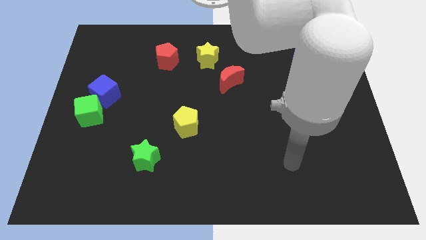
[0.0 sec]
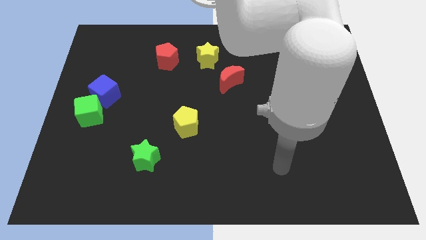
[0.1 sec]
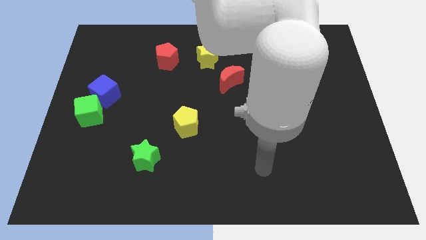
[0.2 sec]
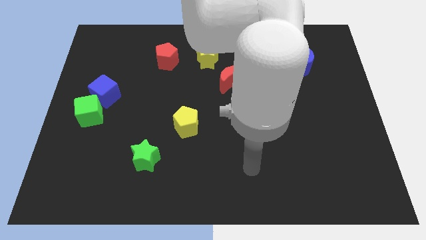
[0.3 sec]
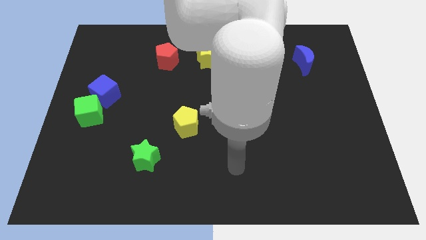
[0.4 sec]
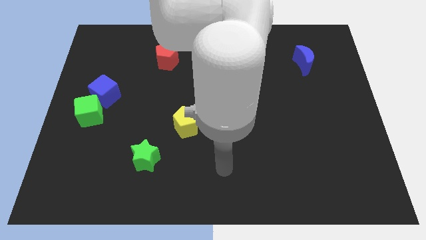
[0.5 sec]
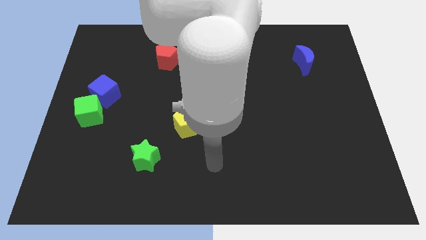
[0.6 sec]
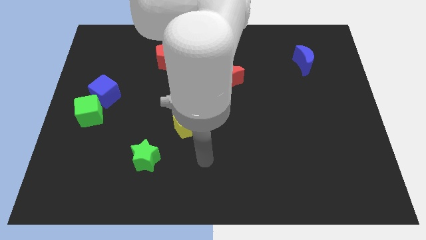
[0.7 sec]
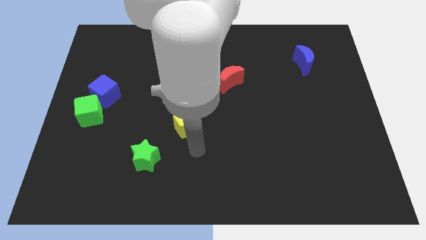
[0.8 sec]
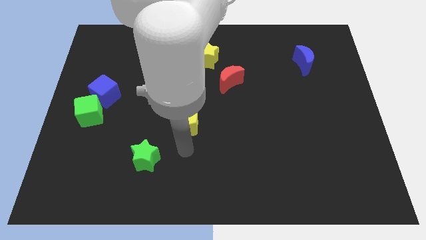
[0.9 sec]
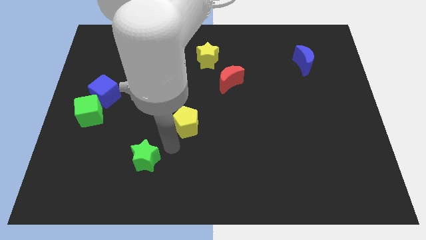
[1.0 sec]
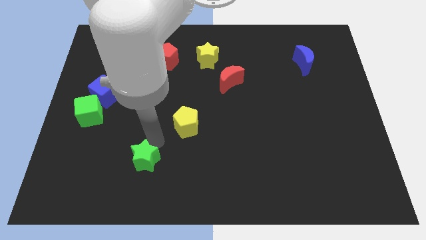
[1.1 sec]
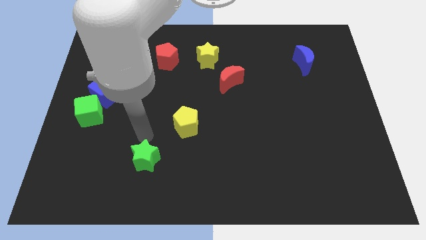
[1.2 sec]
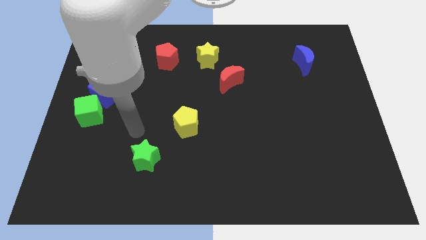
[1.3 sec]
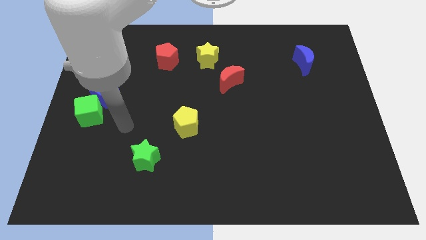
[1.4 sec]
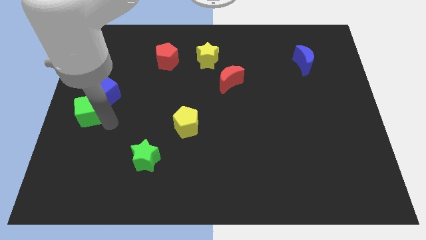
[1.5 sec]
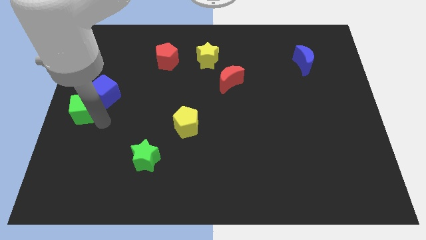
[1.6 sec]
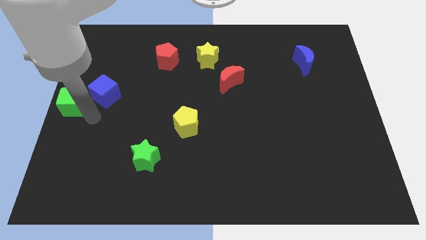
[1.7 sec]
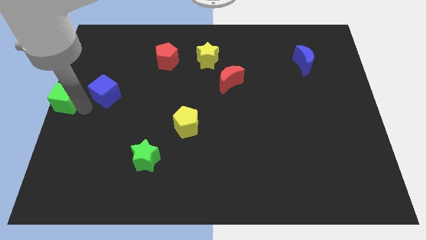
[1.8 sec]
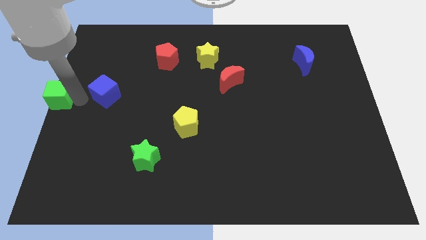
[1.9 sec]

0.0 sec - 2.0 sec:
separate the blue cube from the green cube

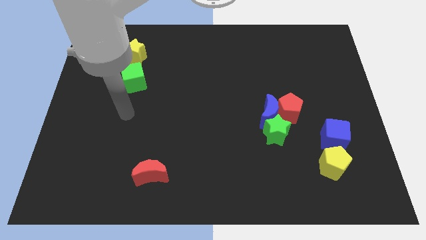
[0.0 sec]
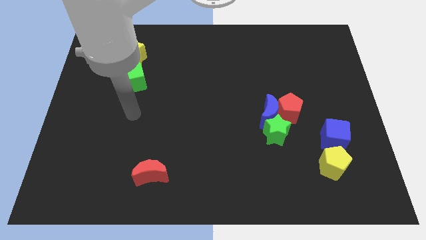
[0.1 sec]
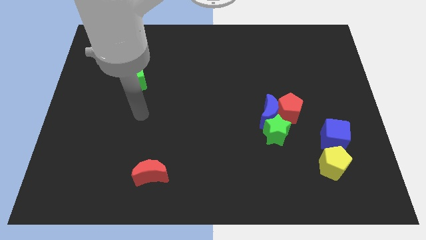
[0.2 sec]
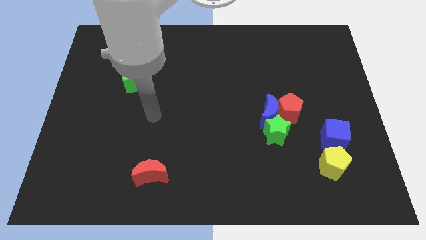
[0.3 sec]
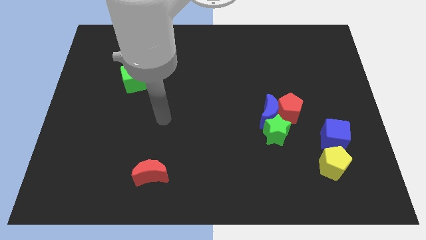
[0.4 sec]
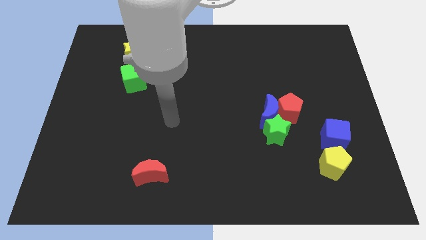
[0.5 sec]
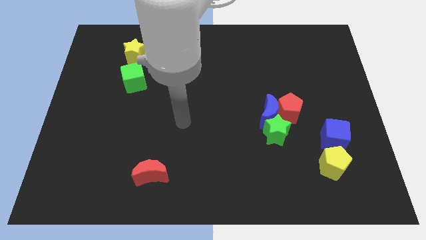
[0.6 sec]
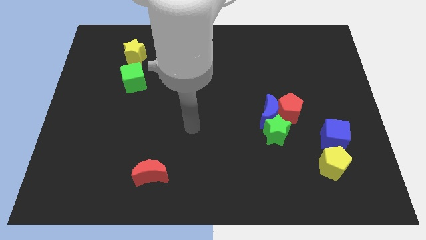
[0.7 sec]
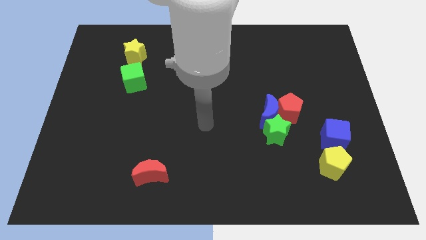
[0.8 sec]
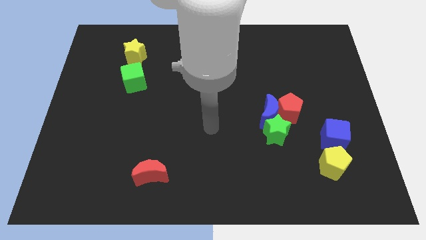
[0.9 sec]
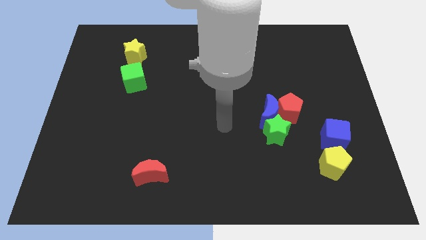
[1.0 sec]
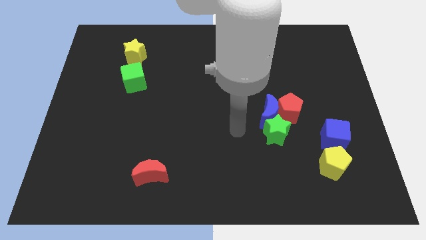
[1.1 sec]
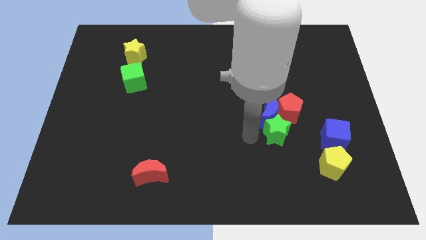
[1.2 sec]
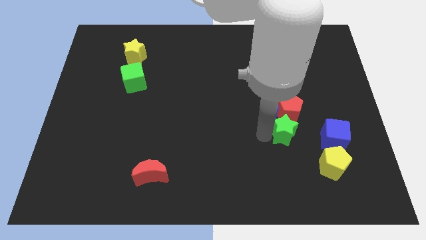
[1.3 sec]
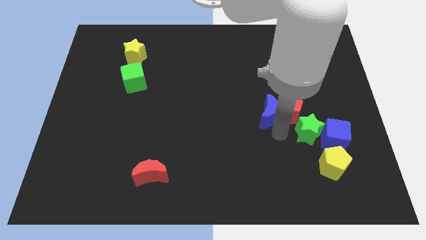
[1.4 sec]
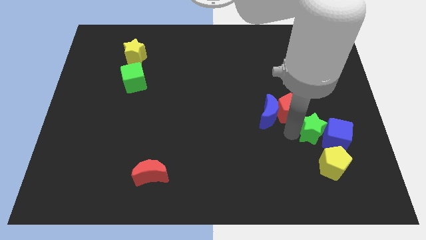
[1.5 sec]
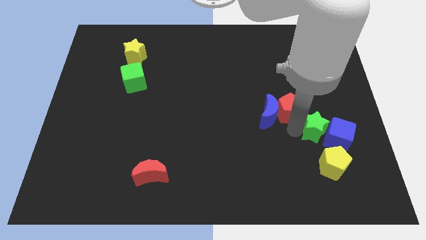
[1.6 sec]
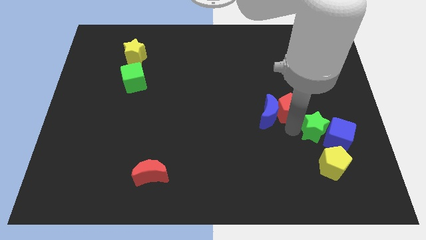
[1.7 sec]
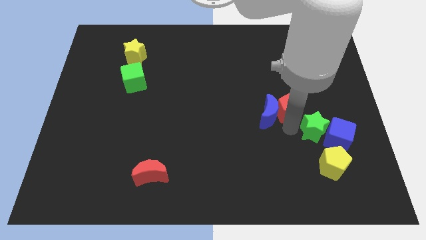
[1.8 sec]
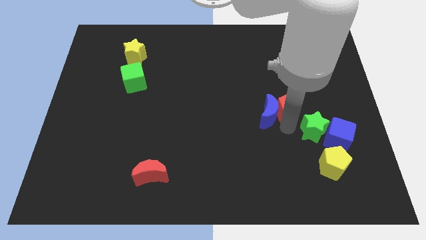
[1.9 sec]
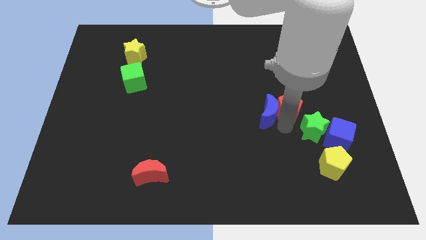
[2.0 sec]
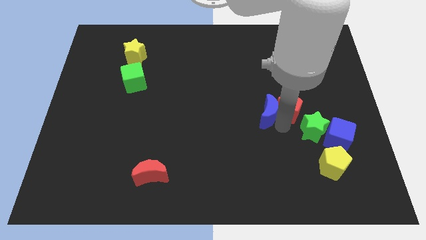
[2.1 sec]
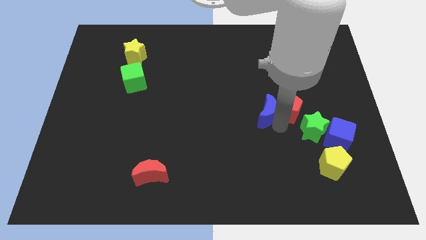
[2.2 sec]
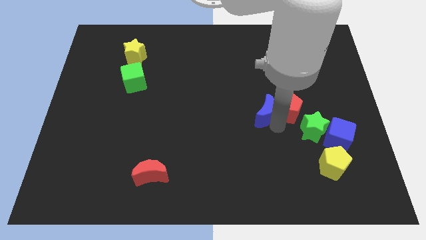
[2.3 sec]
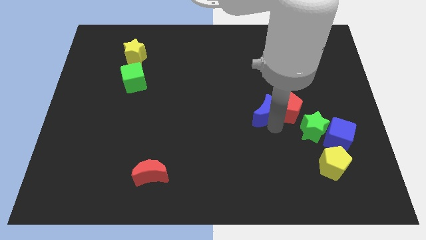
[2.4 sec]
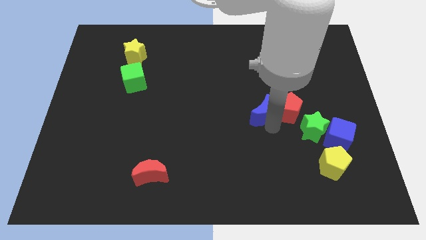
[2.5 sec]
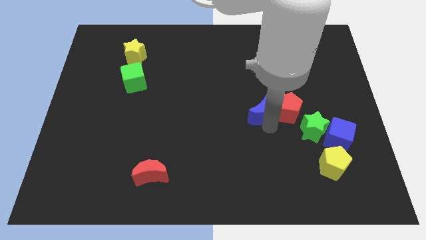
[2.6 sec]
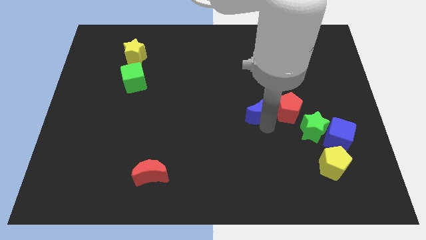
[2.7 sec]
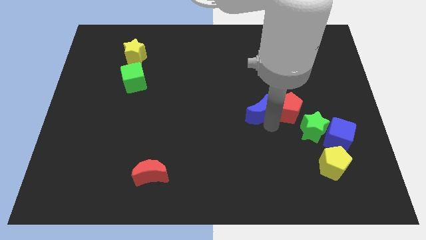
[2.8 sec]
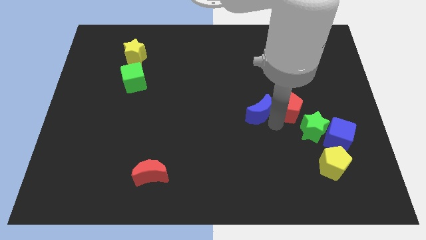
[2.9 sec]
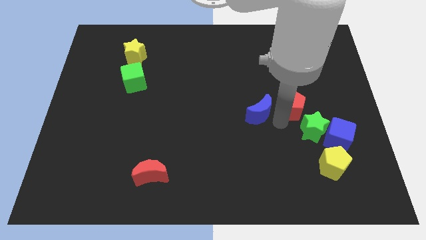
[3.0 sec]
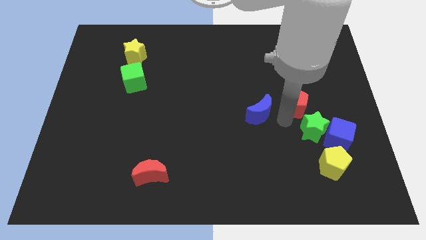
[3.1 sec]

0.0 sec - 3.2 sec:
pull the blue moon apart from the red pentagon and green star

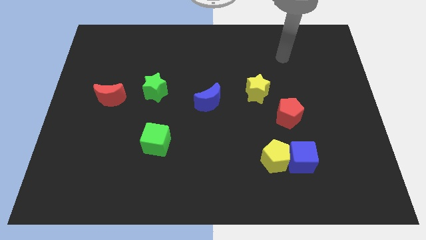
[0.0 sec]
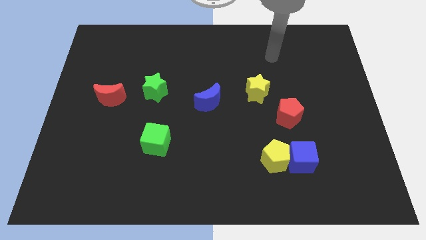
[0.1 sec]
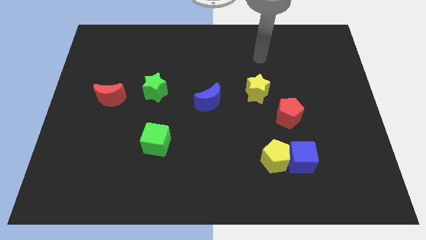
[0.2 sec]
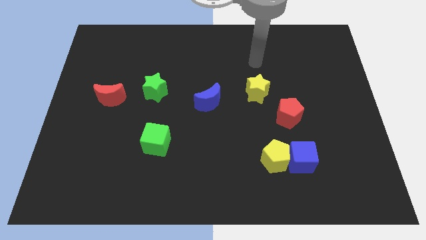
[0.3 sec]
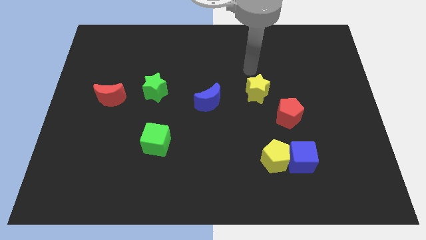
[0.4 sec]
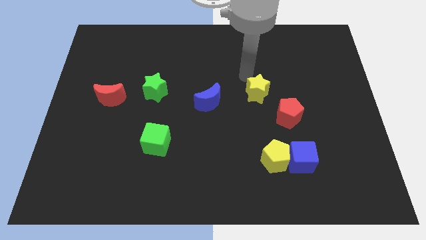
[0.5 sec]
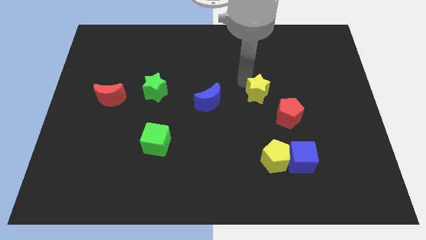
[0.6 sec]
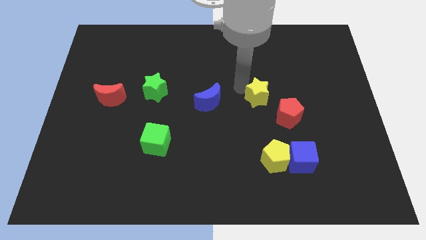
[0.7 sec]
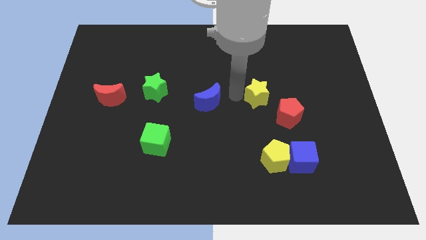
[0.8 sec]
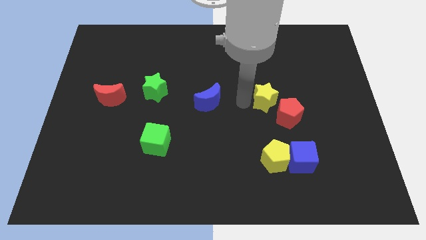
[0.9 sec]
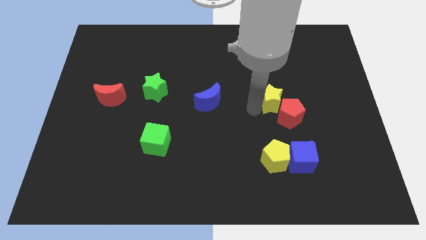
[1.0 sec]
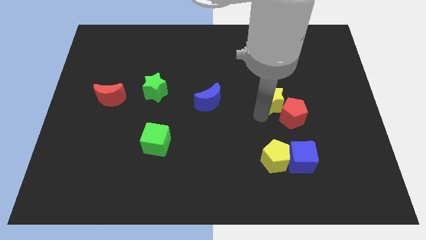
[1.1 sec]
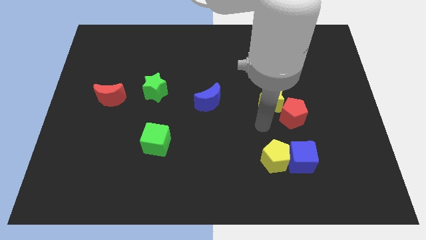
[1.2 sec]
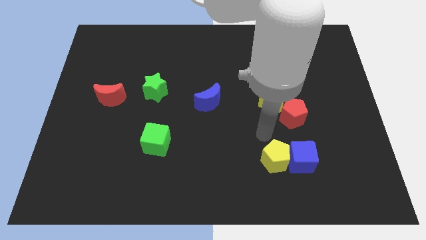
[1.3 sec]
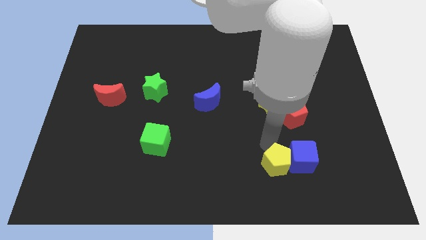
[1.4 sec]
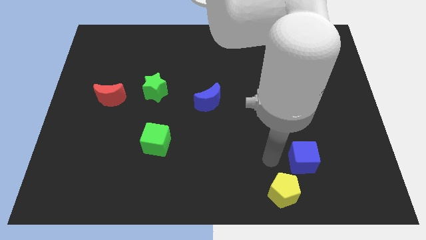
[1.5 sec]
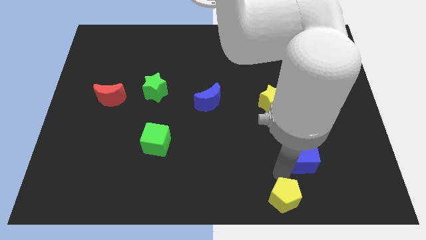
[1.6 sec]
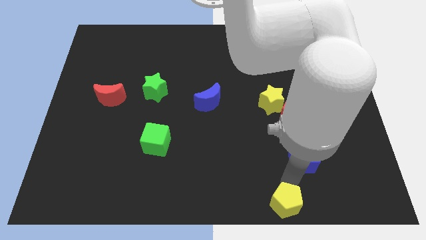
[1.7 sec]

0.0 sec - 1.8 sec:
move the blue cube away from the yellow pentagon

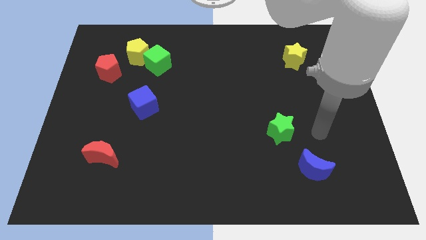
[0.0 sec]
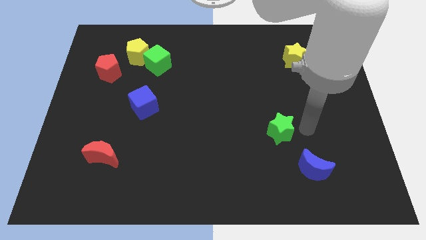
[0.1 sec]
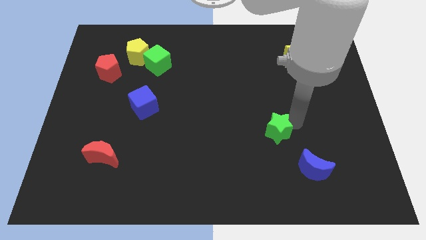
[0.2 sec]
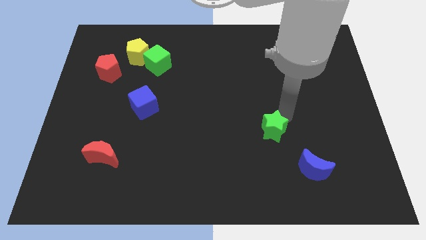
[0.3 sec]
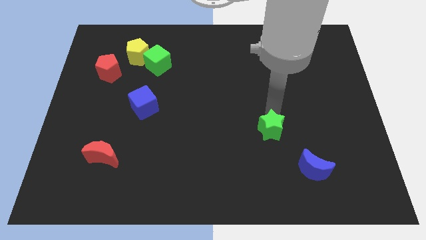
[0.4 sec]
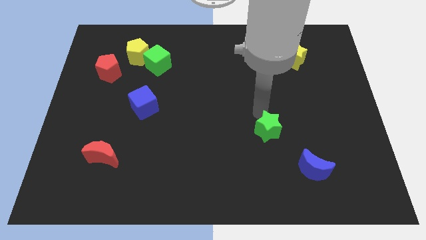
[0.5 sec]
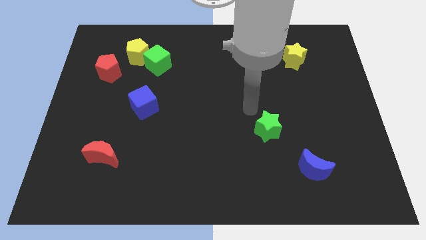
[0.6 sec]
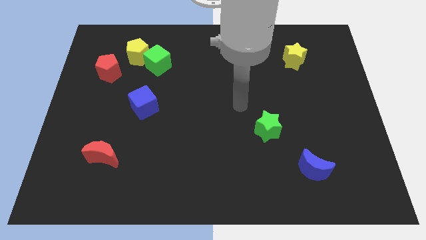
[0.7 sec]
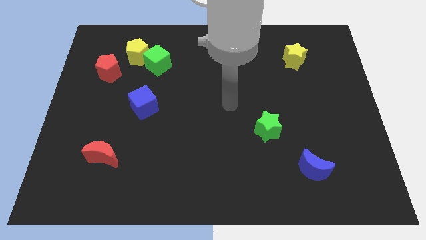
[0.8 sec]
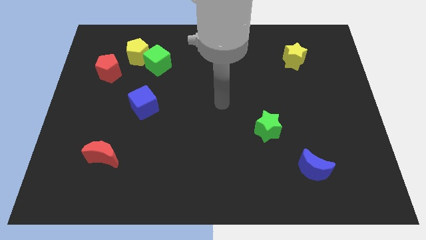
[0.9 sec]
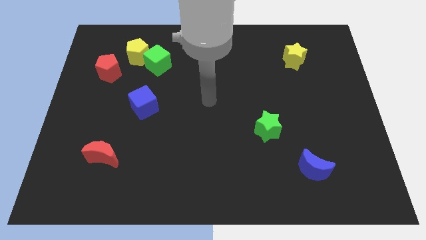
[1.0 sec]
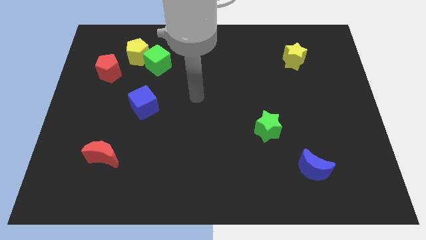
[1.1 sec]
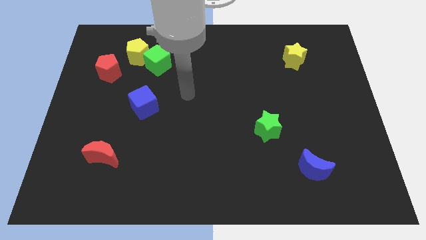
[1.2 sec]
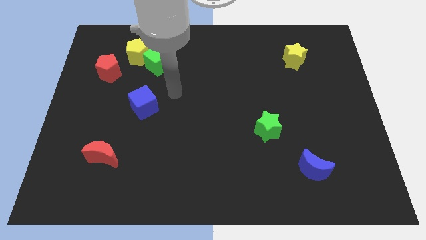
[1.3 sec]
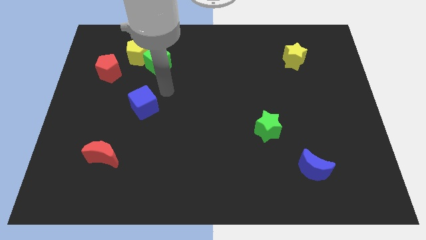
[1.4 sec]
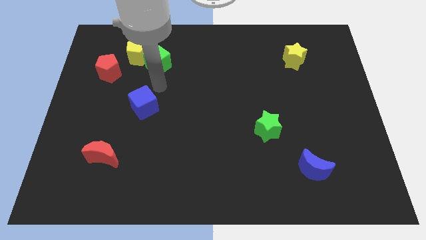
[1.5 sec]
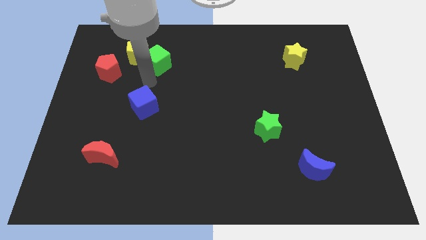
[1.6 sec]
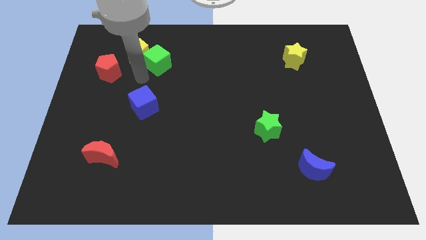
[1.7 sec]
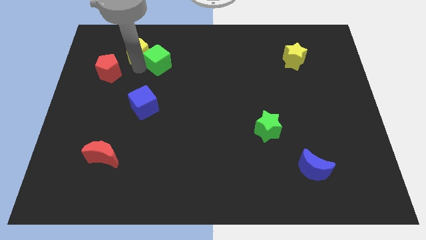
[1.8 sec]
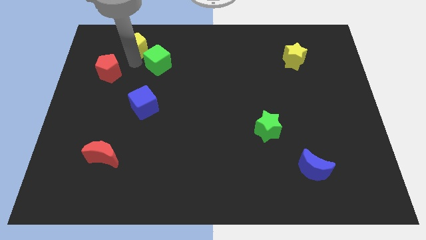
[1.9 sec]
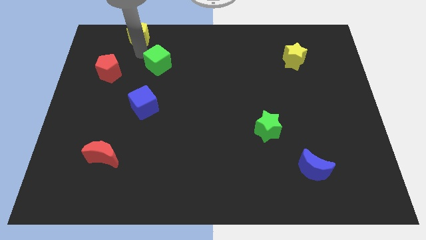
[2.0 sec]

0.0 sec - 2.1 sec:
pull the green cube apart from the yellow pentagon

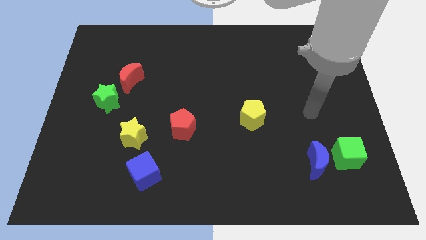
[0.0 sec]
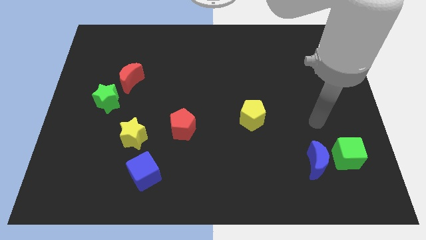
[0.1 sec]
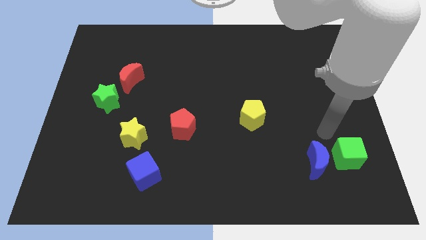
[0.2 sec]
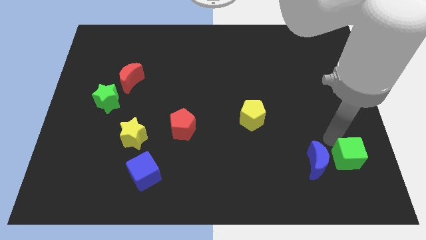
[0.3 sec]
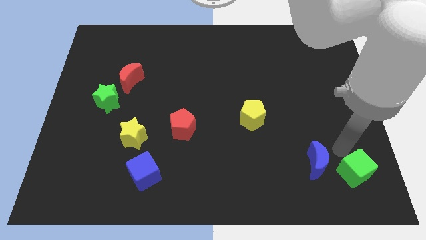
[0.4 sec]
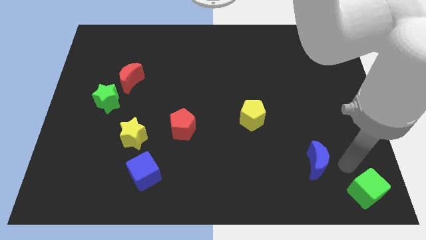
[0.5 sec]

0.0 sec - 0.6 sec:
move the blue moon away from the green cube
